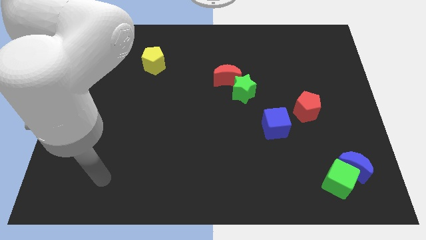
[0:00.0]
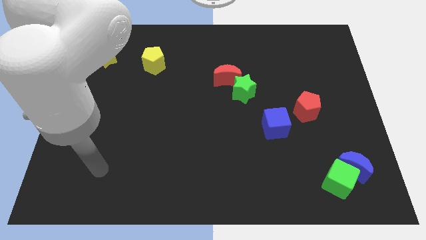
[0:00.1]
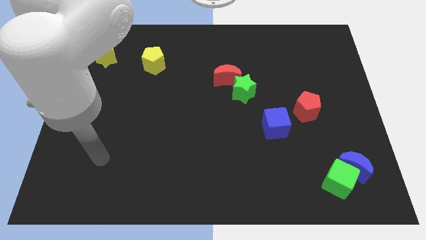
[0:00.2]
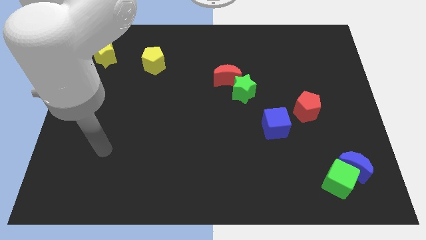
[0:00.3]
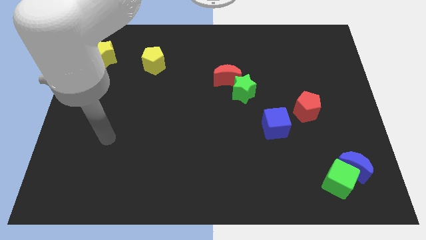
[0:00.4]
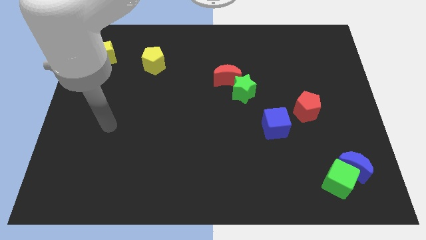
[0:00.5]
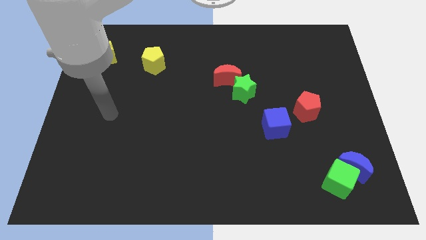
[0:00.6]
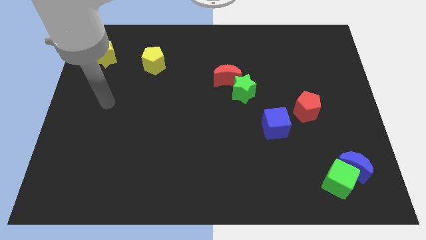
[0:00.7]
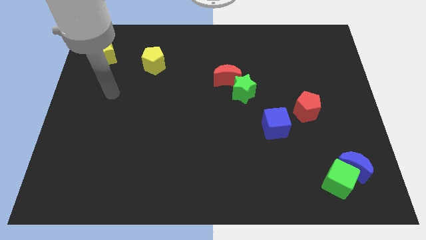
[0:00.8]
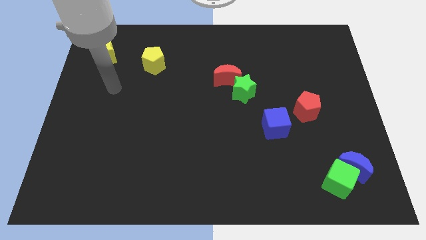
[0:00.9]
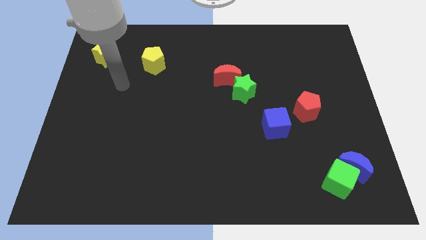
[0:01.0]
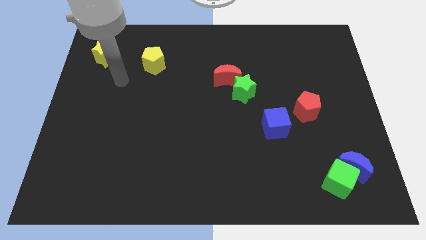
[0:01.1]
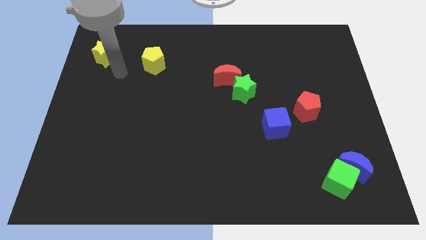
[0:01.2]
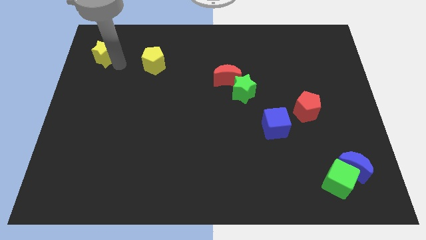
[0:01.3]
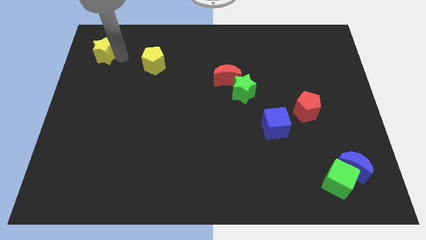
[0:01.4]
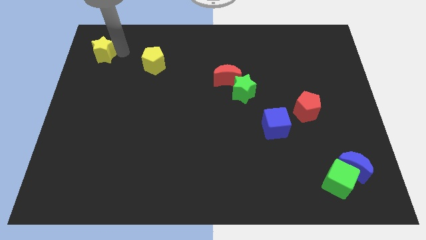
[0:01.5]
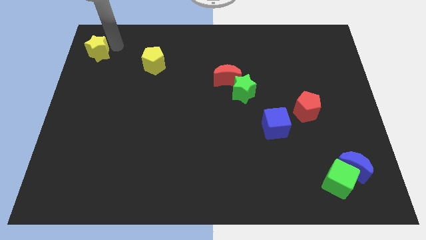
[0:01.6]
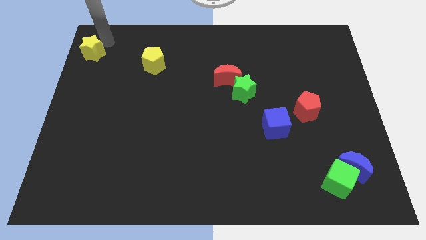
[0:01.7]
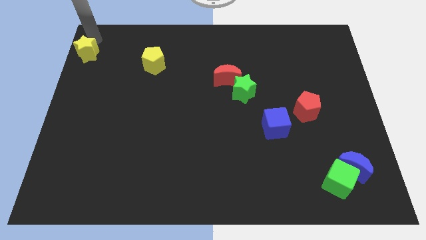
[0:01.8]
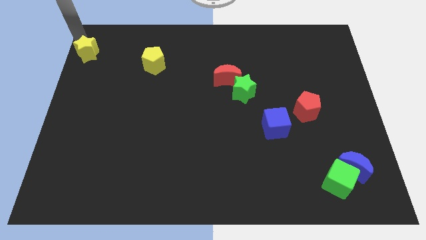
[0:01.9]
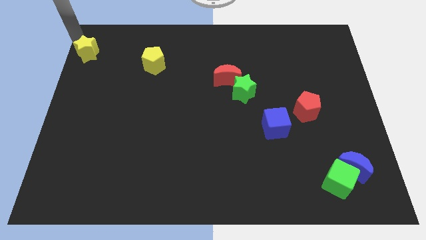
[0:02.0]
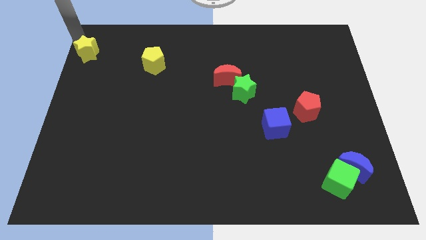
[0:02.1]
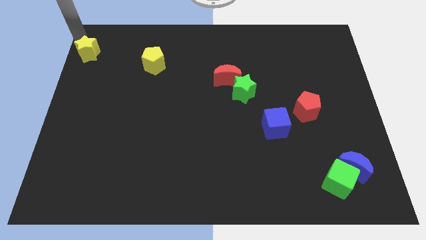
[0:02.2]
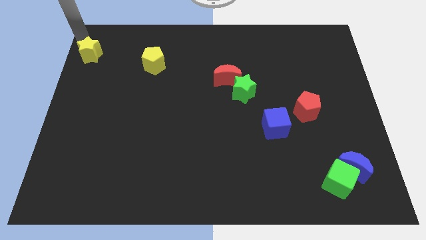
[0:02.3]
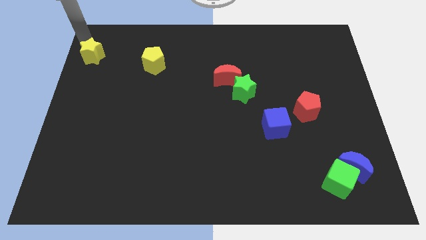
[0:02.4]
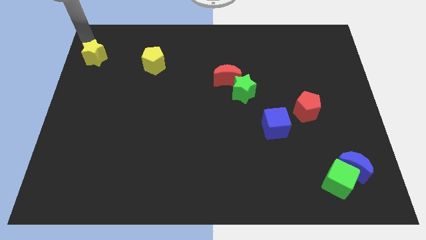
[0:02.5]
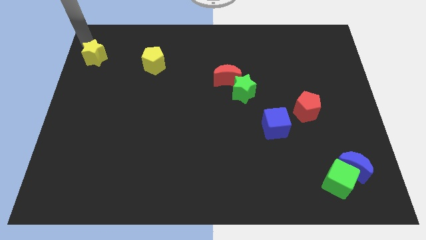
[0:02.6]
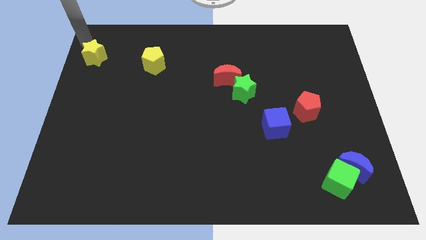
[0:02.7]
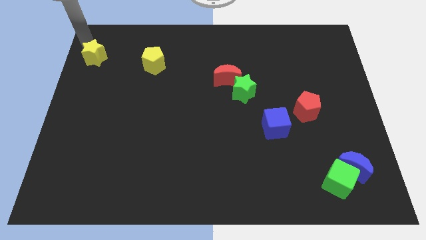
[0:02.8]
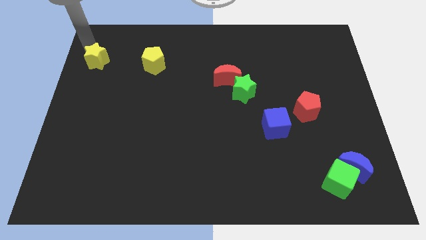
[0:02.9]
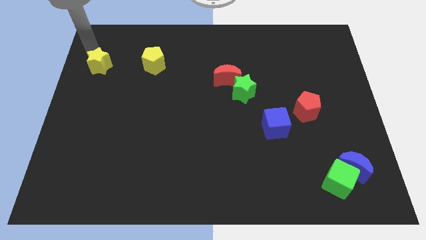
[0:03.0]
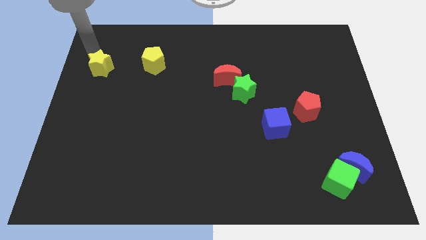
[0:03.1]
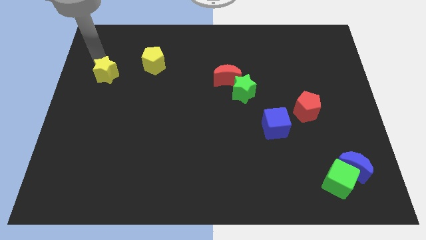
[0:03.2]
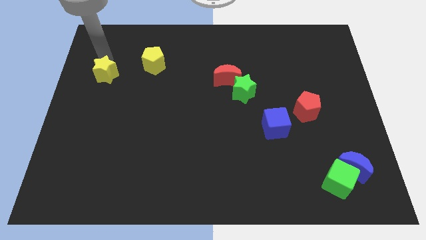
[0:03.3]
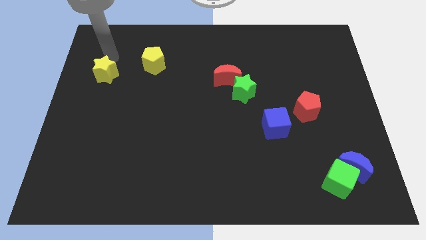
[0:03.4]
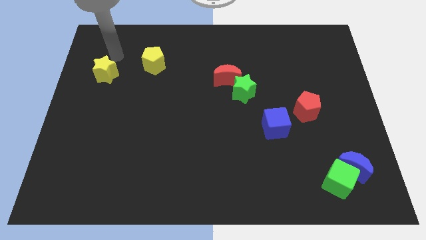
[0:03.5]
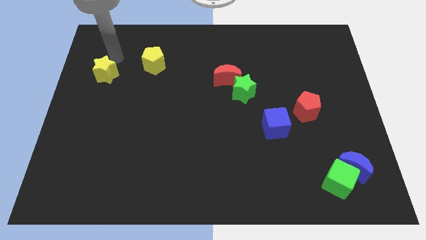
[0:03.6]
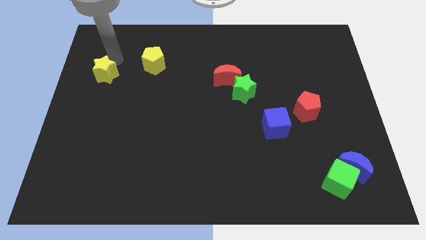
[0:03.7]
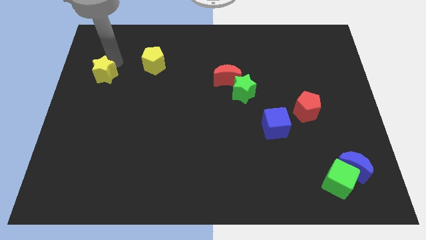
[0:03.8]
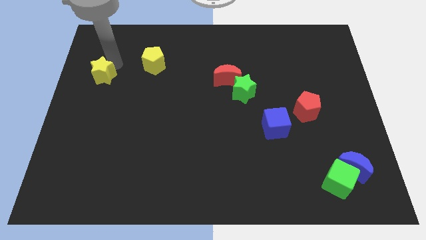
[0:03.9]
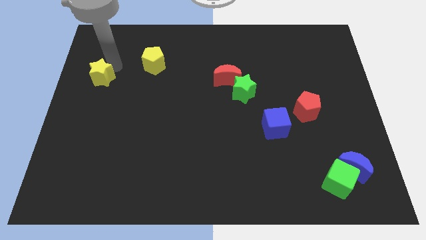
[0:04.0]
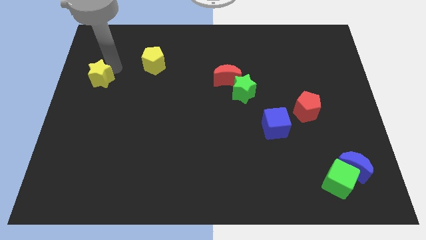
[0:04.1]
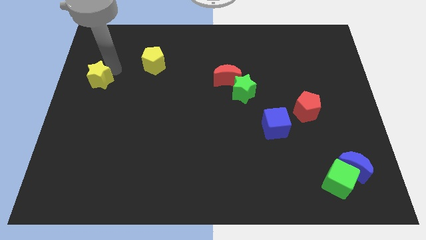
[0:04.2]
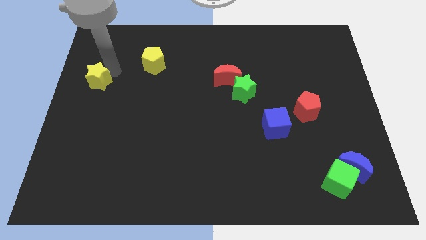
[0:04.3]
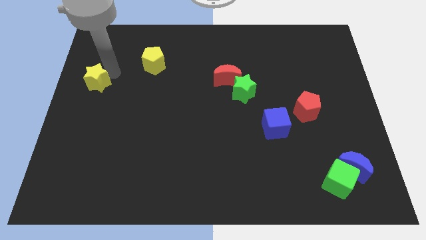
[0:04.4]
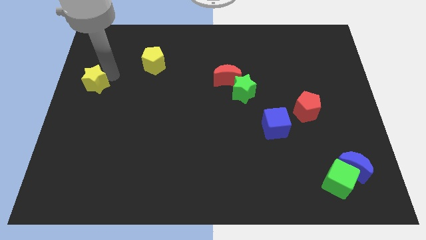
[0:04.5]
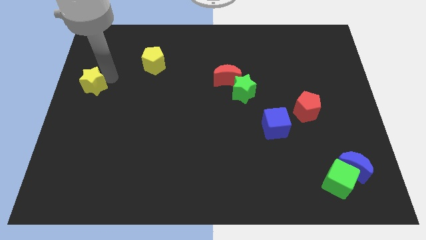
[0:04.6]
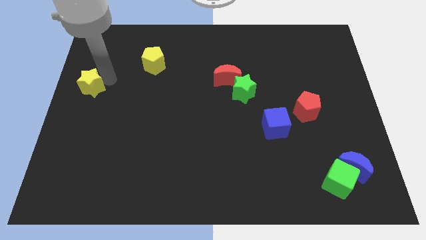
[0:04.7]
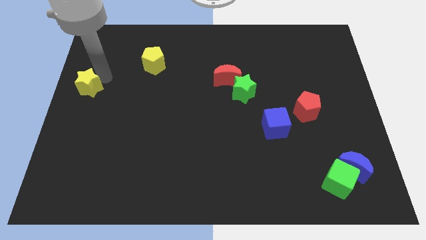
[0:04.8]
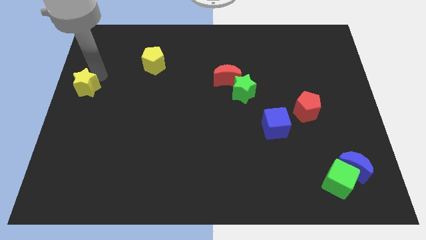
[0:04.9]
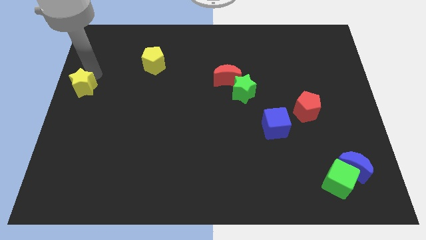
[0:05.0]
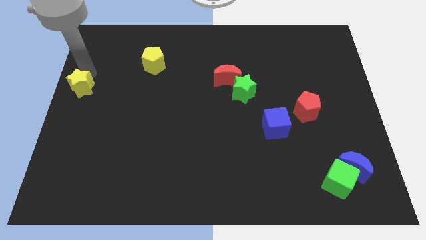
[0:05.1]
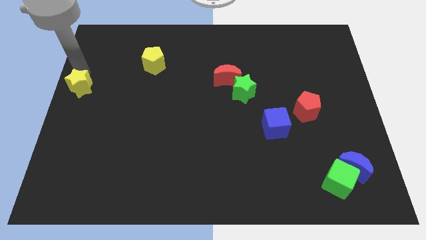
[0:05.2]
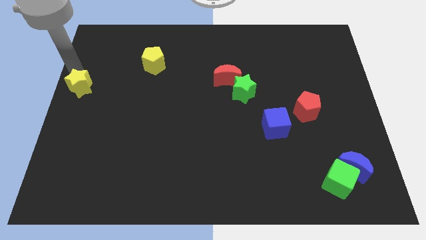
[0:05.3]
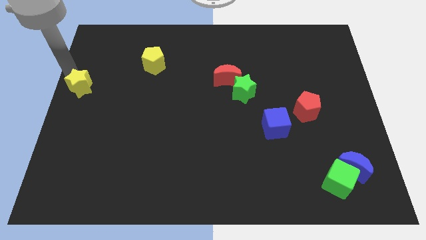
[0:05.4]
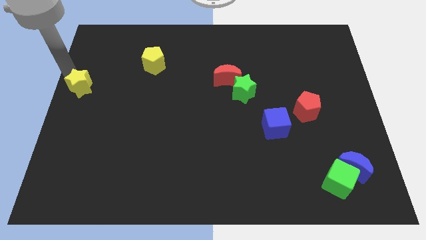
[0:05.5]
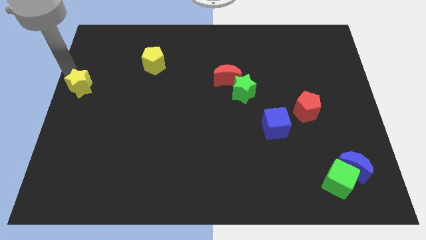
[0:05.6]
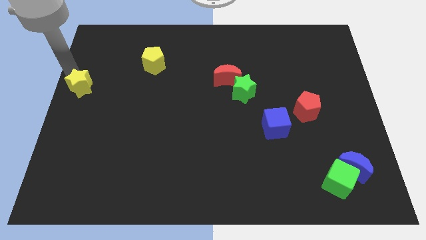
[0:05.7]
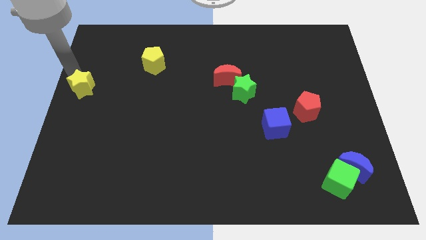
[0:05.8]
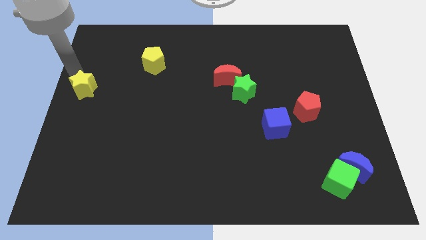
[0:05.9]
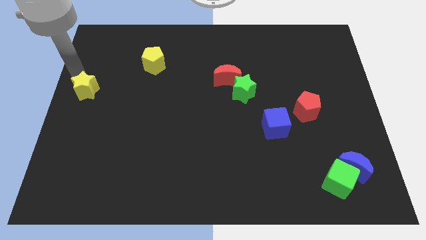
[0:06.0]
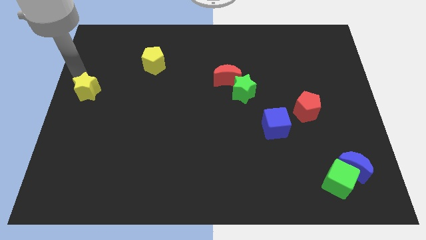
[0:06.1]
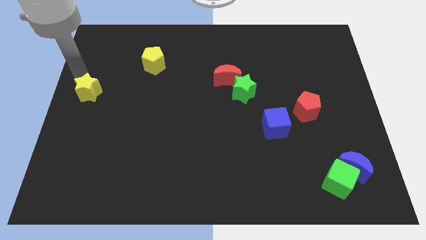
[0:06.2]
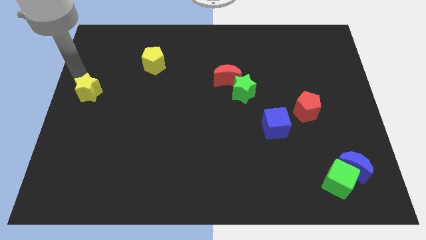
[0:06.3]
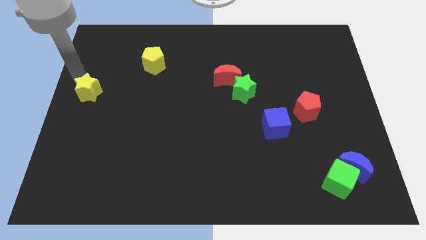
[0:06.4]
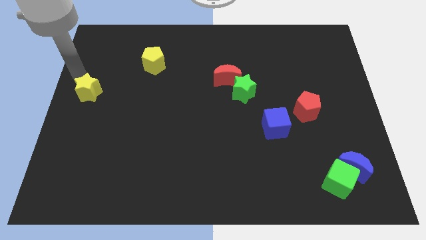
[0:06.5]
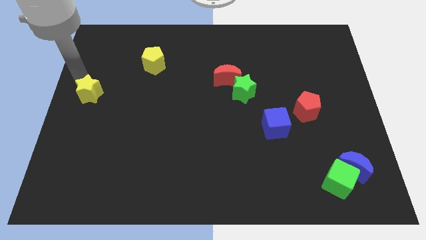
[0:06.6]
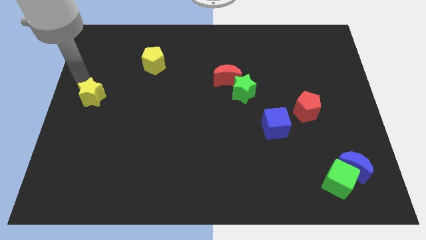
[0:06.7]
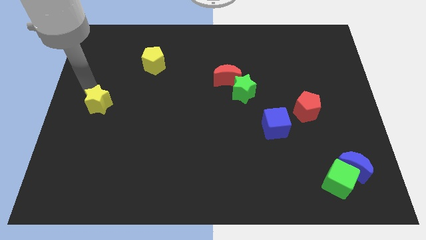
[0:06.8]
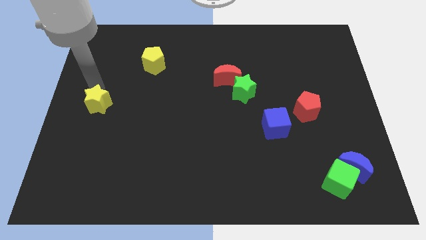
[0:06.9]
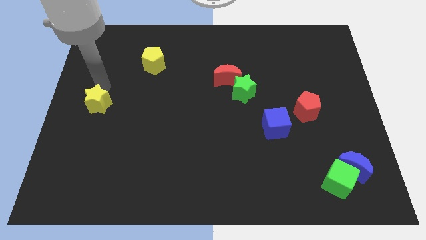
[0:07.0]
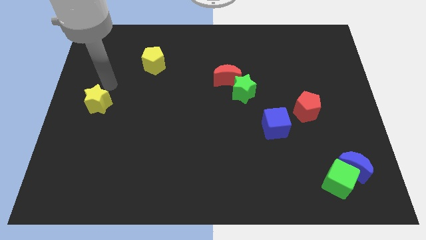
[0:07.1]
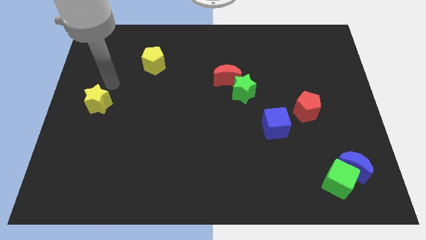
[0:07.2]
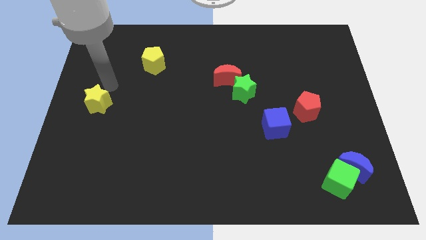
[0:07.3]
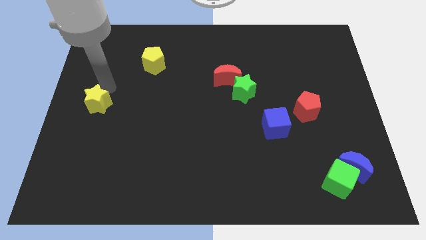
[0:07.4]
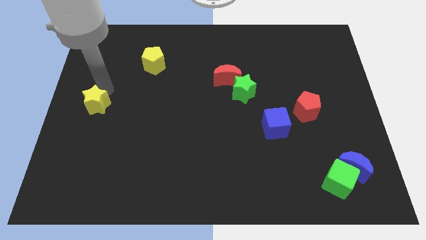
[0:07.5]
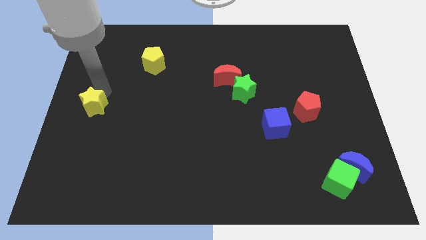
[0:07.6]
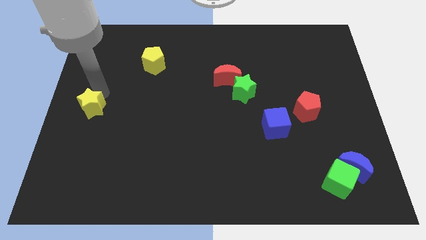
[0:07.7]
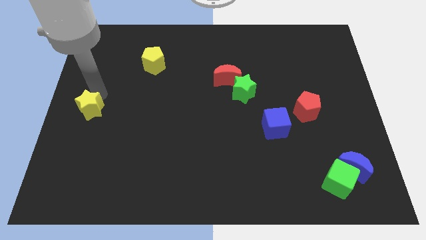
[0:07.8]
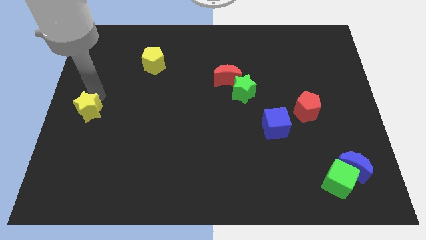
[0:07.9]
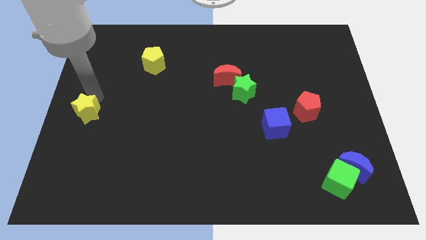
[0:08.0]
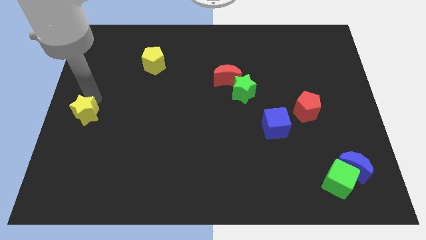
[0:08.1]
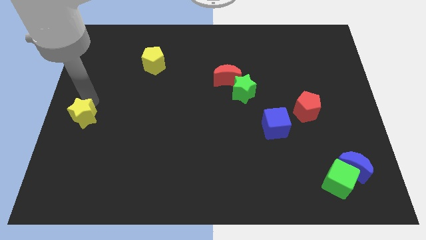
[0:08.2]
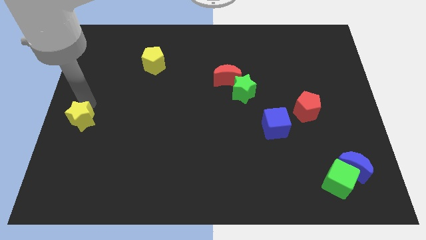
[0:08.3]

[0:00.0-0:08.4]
slide the yellow star downwards
